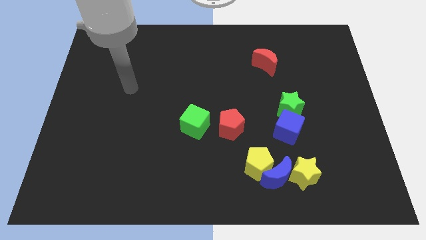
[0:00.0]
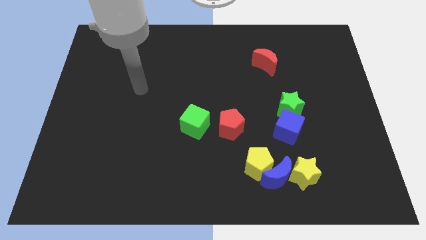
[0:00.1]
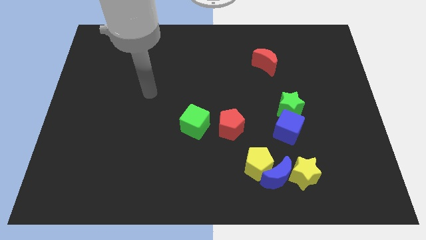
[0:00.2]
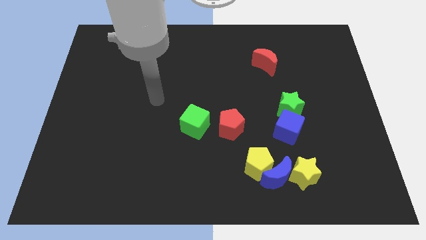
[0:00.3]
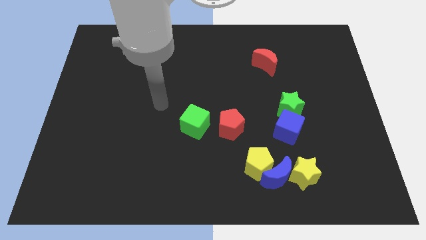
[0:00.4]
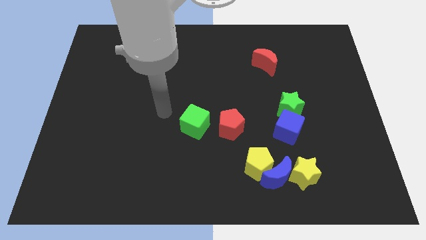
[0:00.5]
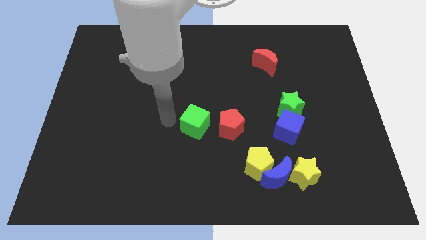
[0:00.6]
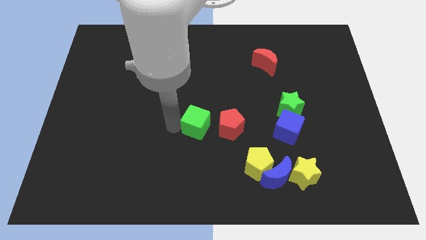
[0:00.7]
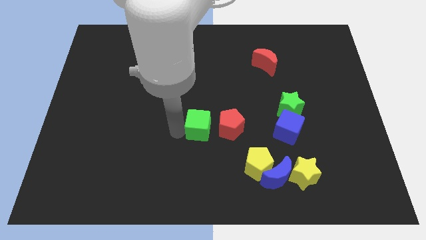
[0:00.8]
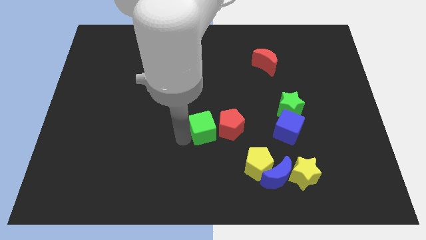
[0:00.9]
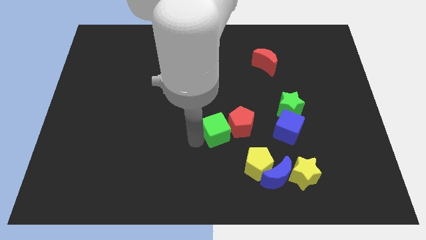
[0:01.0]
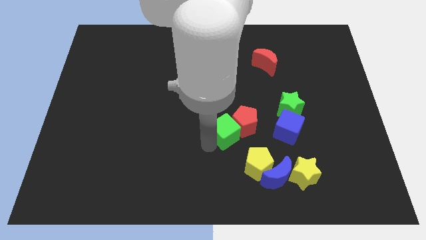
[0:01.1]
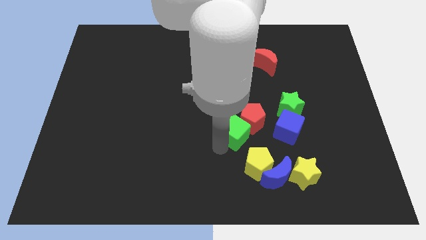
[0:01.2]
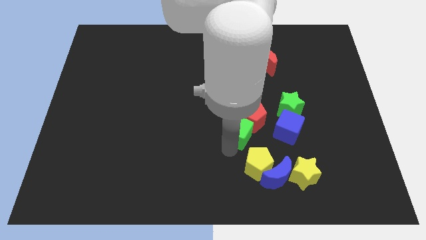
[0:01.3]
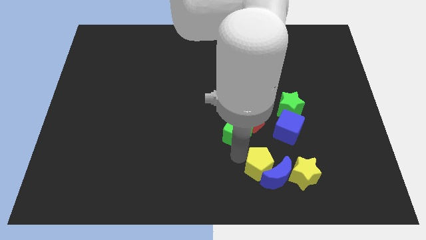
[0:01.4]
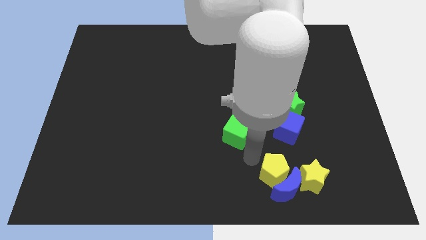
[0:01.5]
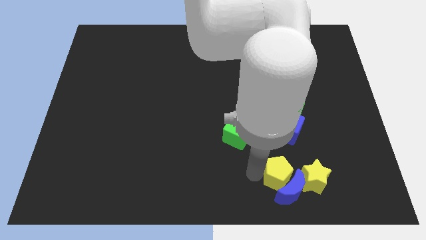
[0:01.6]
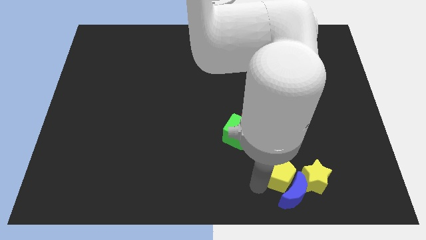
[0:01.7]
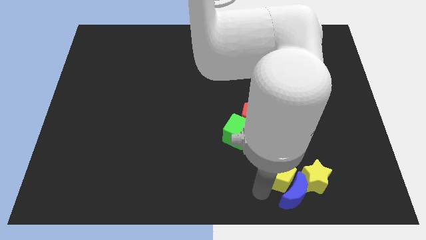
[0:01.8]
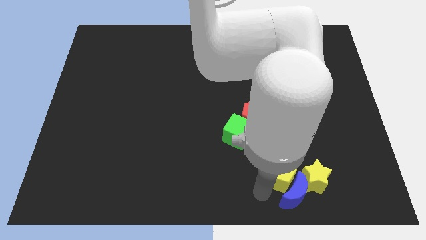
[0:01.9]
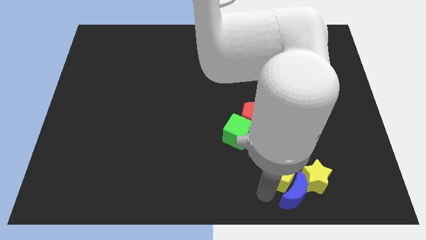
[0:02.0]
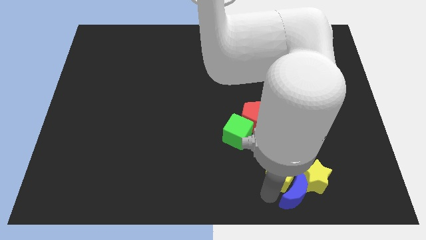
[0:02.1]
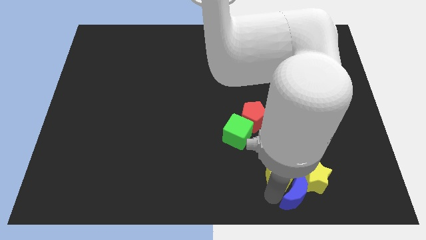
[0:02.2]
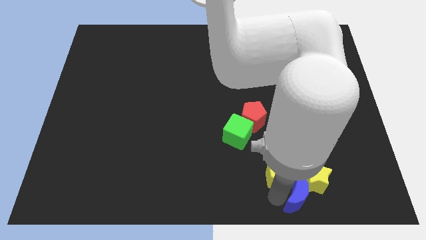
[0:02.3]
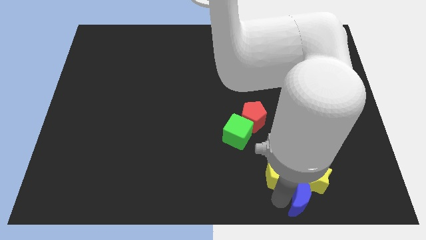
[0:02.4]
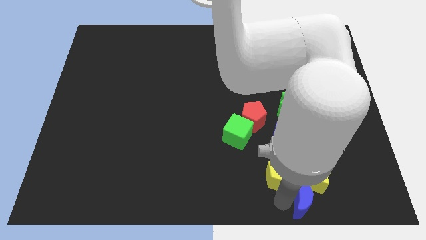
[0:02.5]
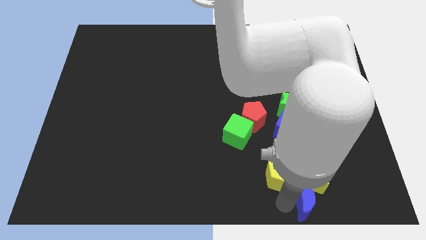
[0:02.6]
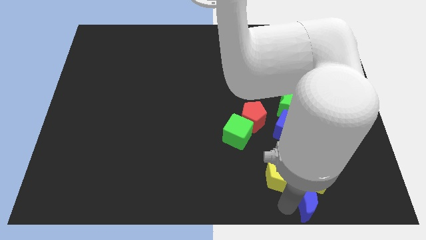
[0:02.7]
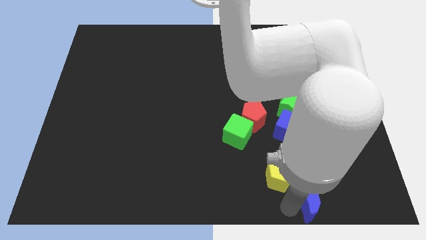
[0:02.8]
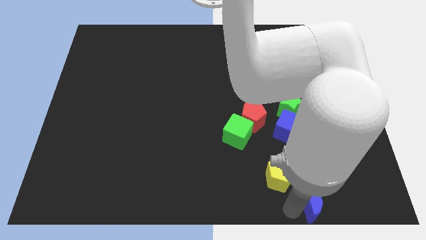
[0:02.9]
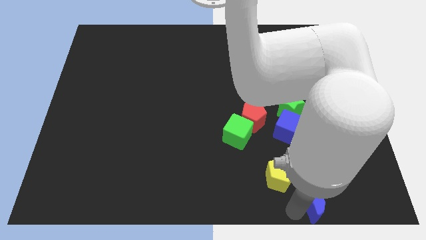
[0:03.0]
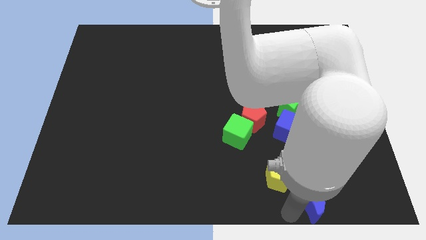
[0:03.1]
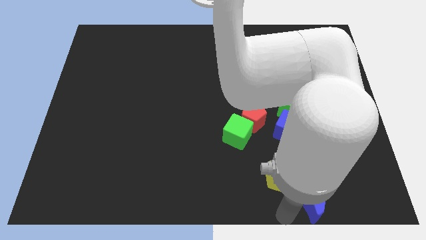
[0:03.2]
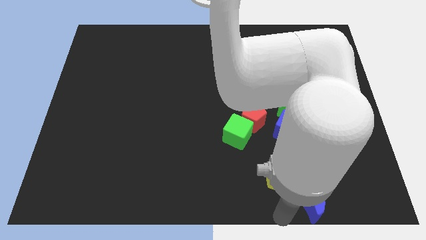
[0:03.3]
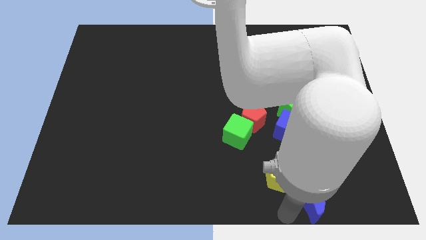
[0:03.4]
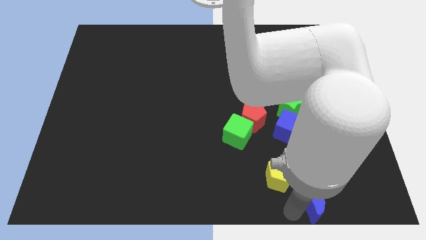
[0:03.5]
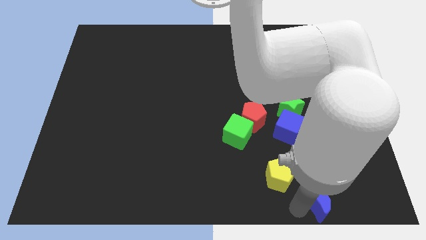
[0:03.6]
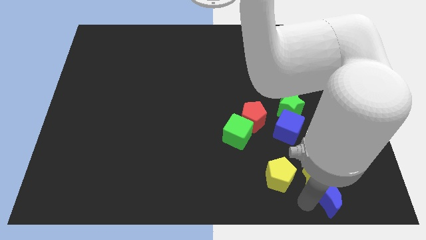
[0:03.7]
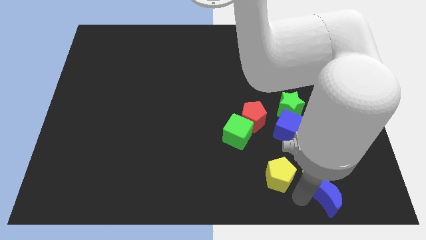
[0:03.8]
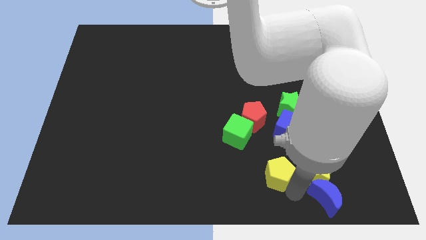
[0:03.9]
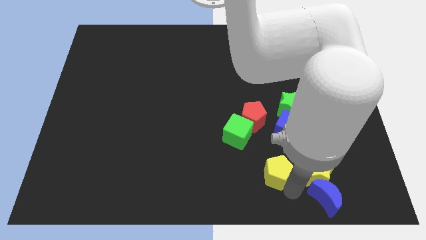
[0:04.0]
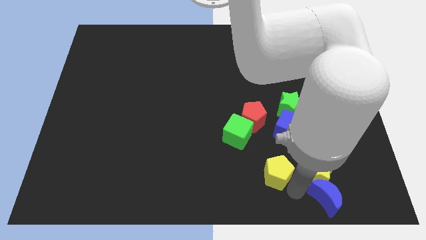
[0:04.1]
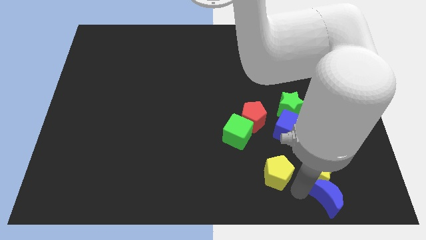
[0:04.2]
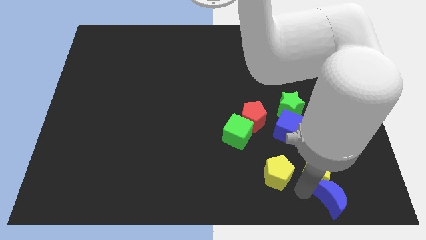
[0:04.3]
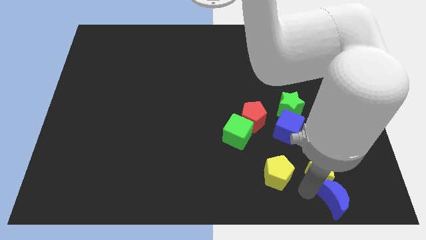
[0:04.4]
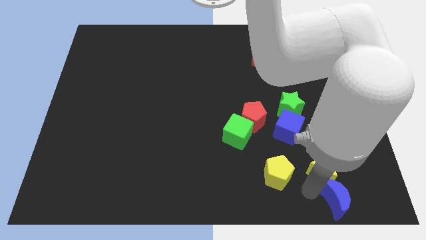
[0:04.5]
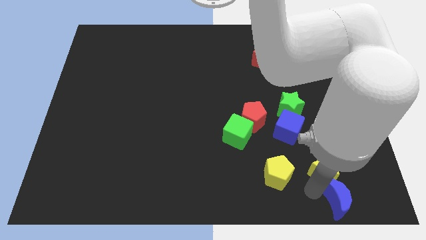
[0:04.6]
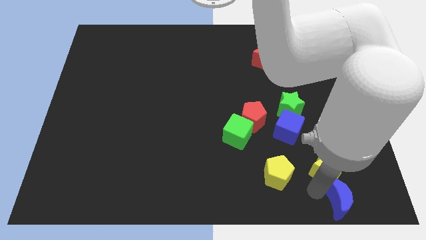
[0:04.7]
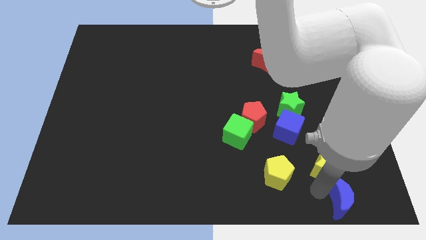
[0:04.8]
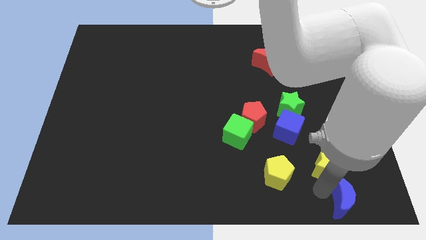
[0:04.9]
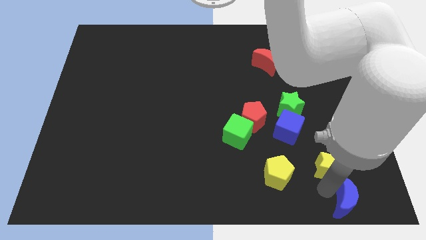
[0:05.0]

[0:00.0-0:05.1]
push the blue moon to the lower right corner

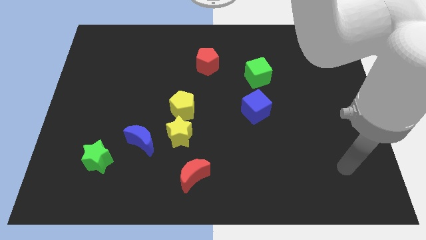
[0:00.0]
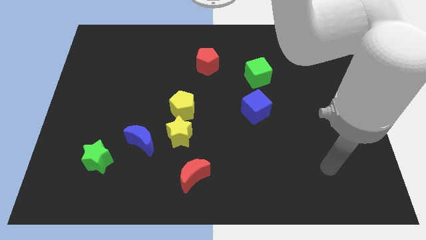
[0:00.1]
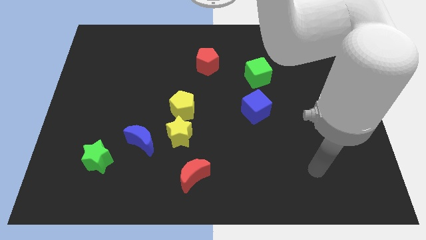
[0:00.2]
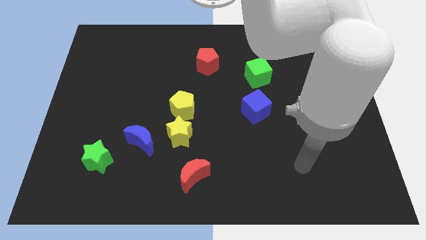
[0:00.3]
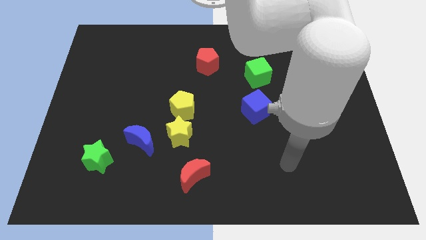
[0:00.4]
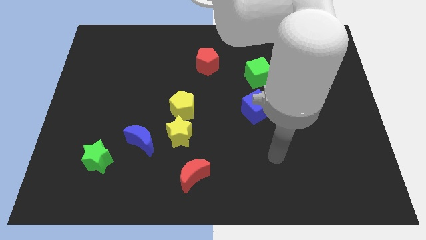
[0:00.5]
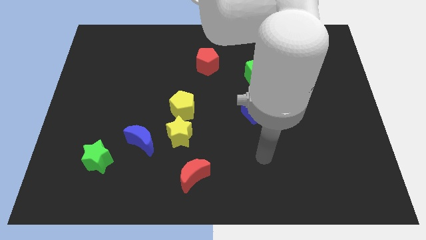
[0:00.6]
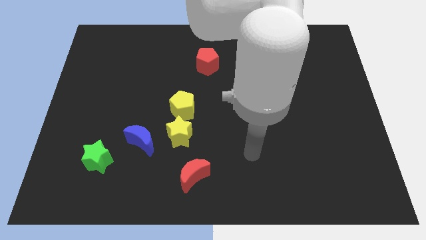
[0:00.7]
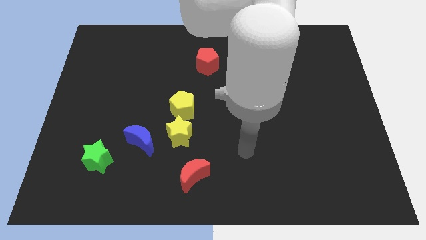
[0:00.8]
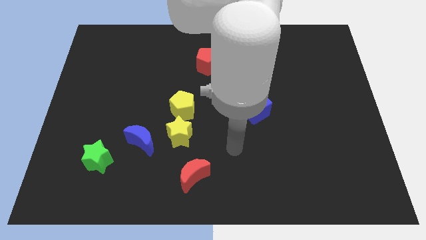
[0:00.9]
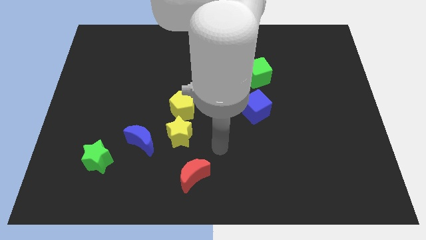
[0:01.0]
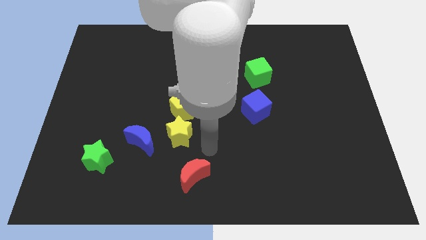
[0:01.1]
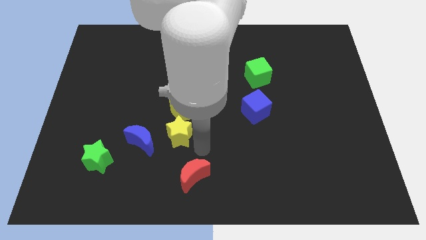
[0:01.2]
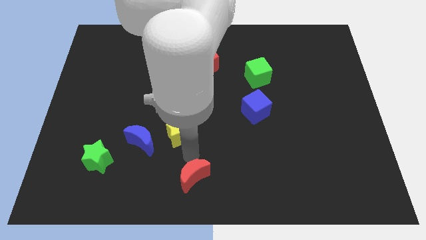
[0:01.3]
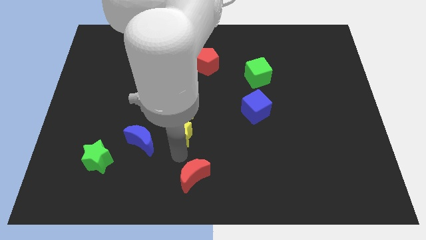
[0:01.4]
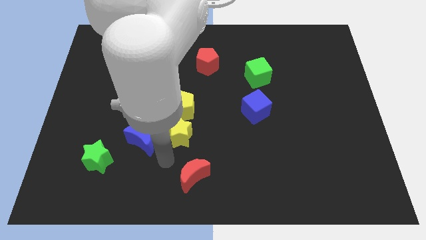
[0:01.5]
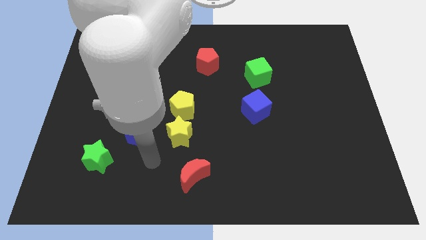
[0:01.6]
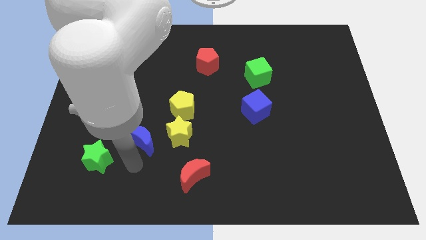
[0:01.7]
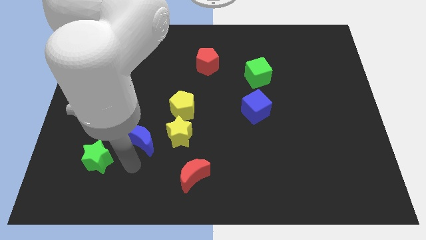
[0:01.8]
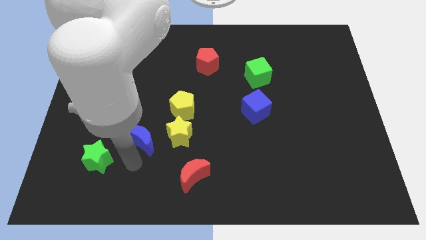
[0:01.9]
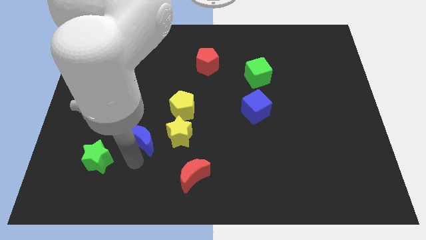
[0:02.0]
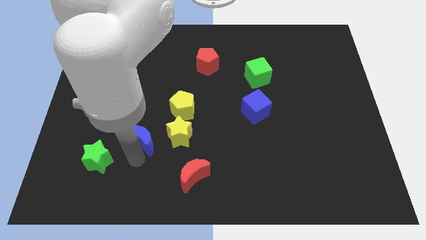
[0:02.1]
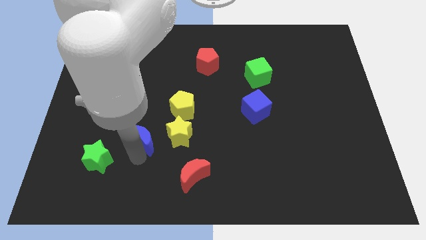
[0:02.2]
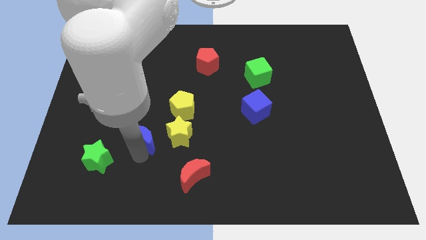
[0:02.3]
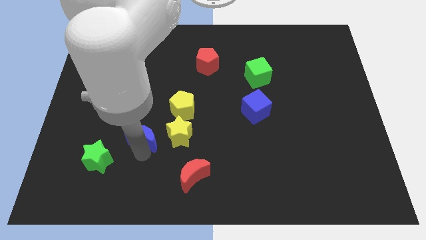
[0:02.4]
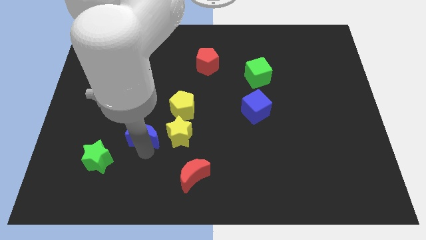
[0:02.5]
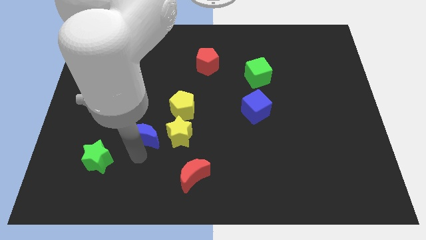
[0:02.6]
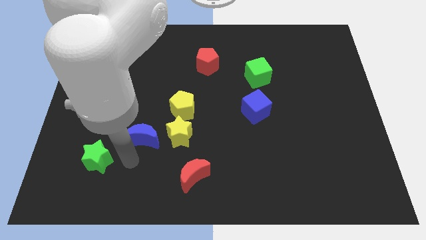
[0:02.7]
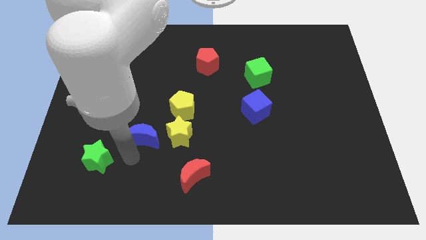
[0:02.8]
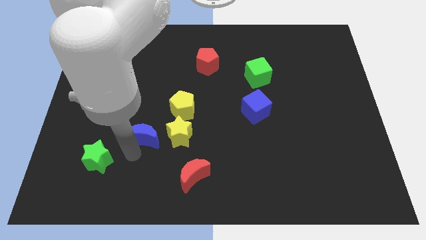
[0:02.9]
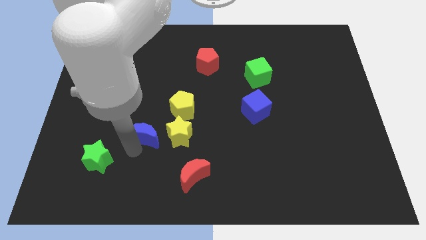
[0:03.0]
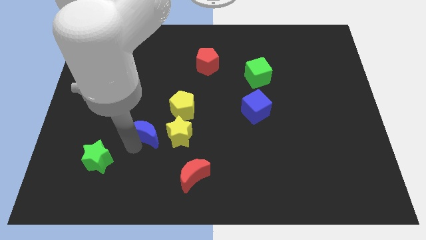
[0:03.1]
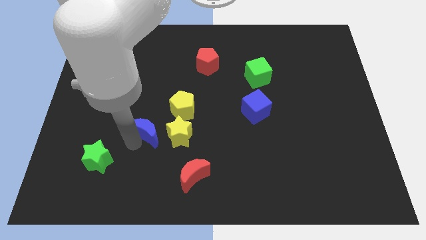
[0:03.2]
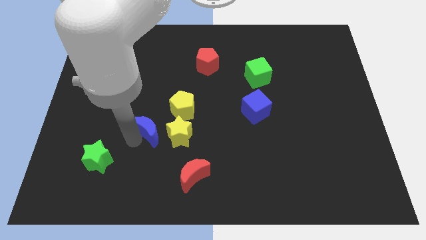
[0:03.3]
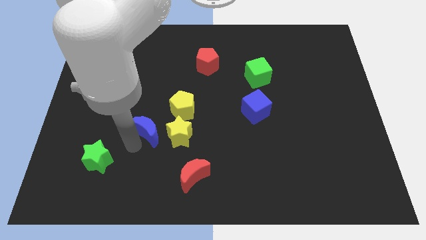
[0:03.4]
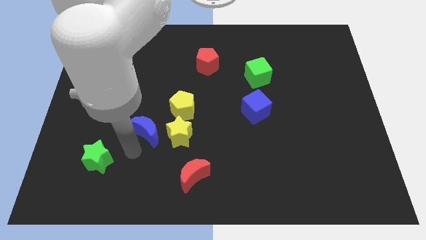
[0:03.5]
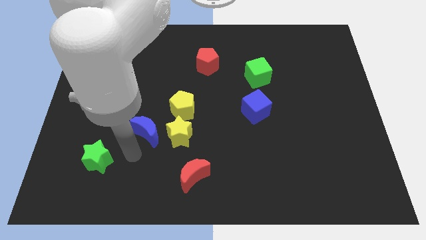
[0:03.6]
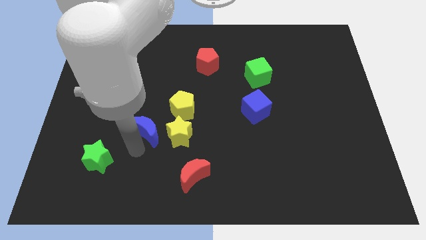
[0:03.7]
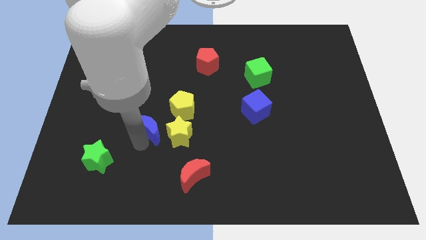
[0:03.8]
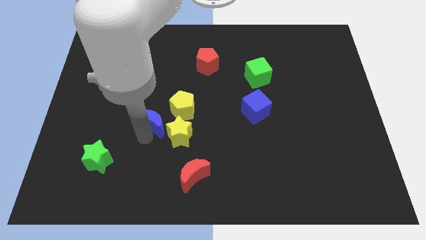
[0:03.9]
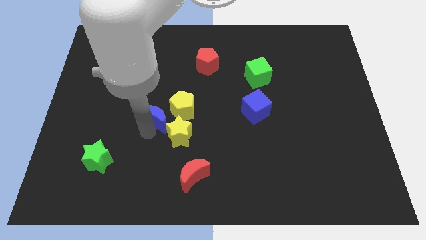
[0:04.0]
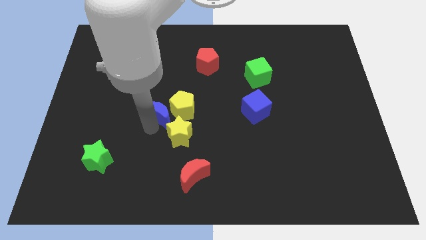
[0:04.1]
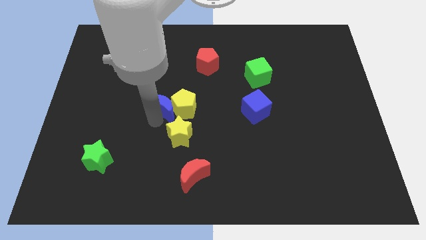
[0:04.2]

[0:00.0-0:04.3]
push the blue moon to the center of the board
